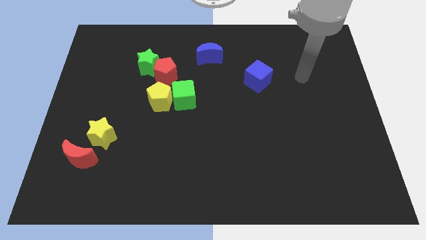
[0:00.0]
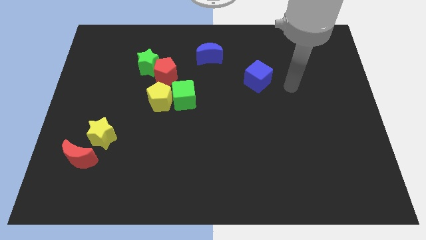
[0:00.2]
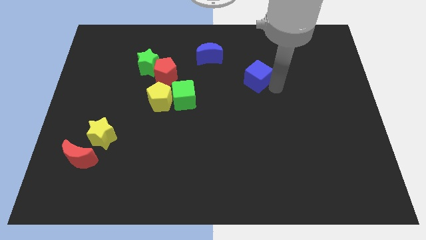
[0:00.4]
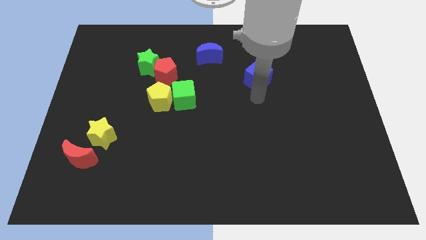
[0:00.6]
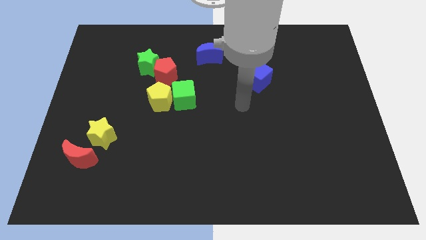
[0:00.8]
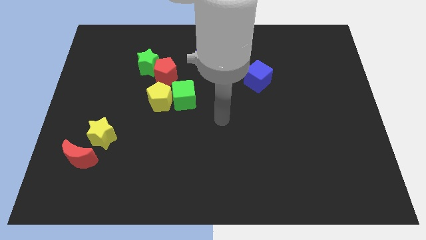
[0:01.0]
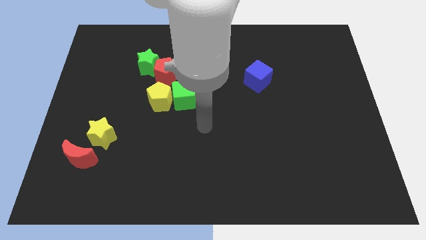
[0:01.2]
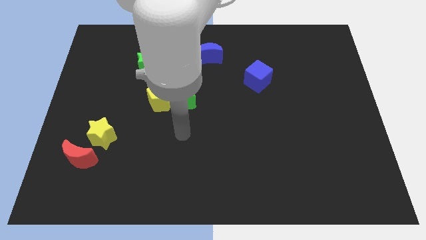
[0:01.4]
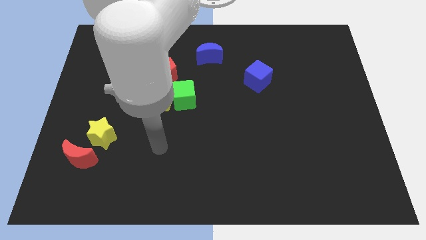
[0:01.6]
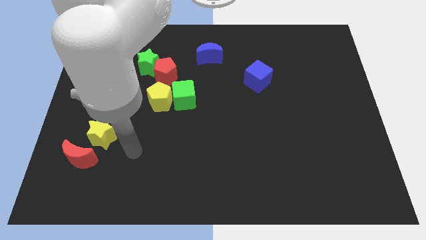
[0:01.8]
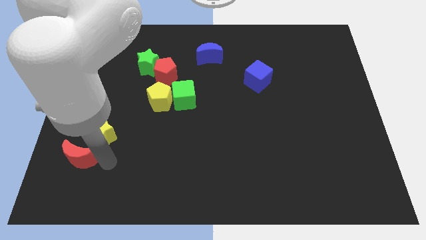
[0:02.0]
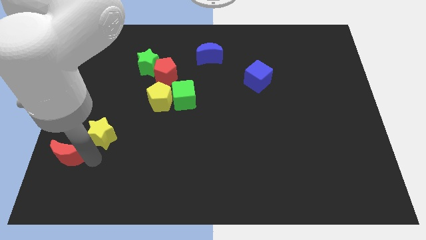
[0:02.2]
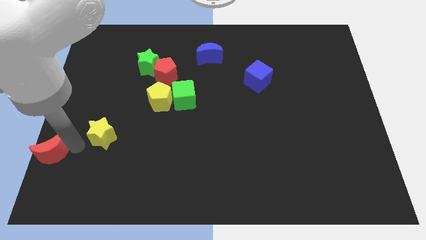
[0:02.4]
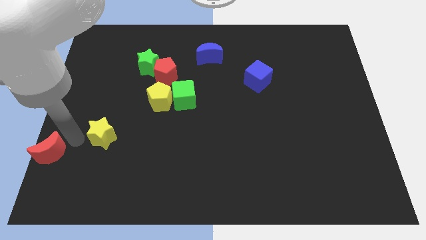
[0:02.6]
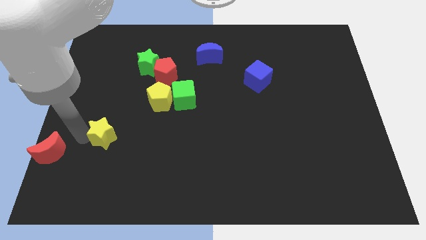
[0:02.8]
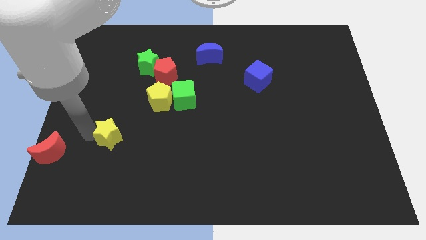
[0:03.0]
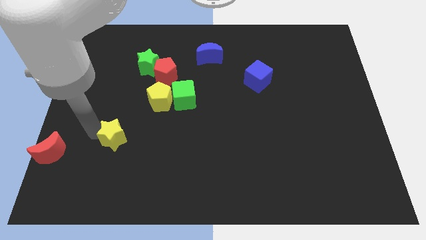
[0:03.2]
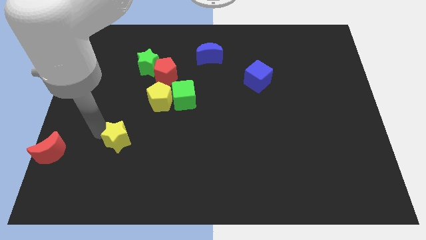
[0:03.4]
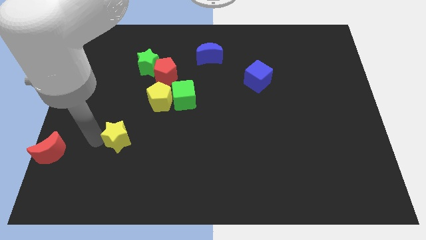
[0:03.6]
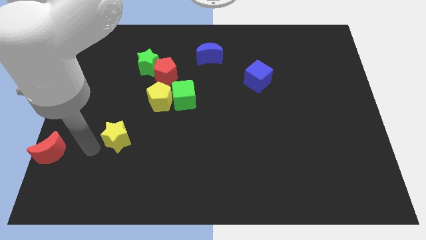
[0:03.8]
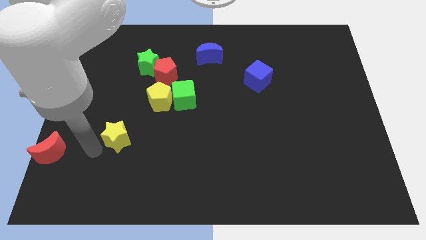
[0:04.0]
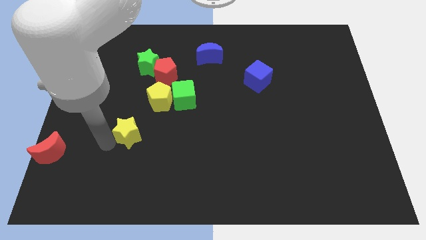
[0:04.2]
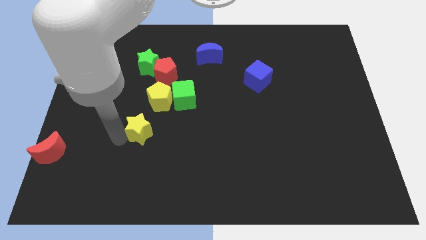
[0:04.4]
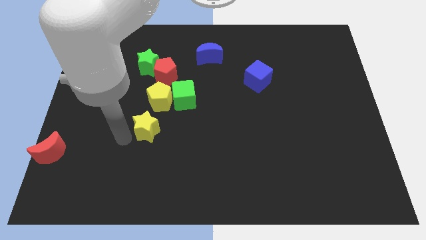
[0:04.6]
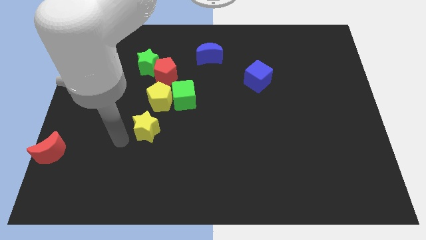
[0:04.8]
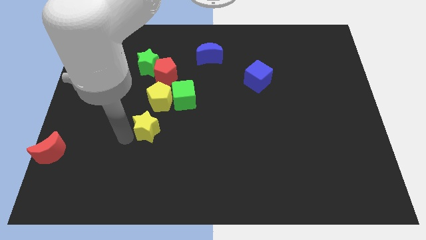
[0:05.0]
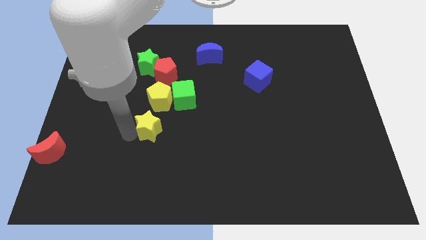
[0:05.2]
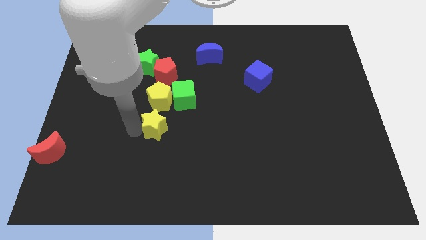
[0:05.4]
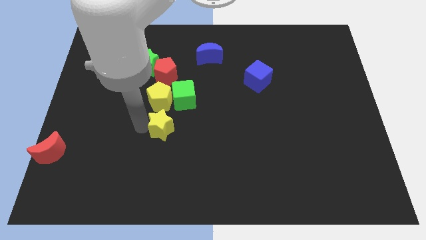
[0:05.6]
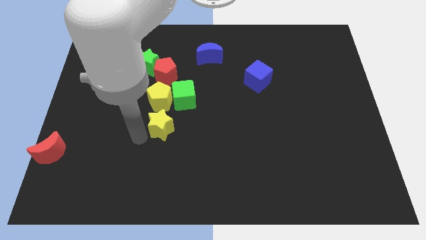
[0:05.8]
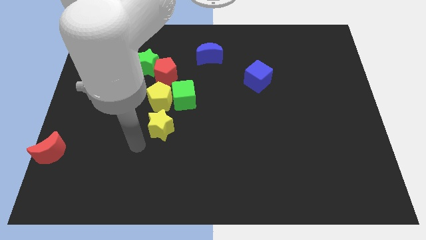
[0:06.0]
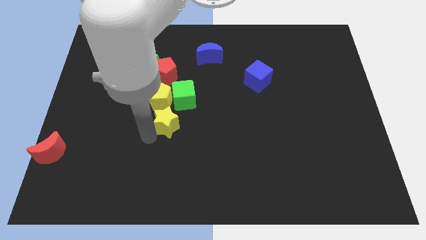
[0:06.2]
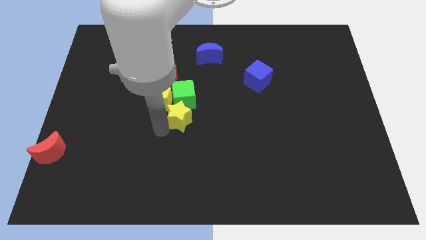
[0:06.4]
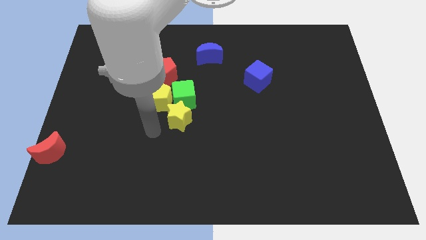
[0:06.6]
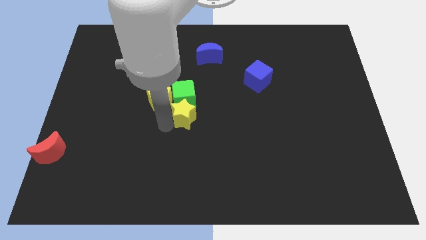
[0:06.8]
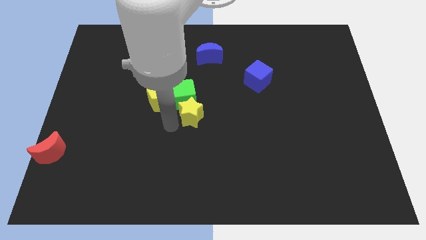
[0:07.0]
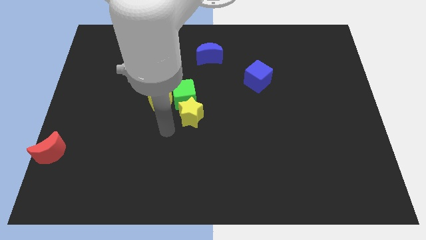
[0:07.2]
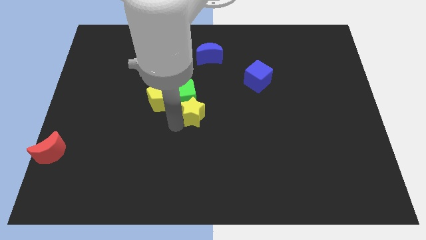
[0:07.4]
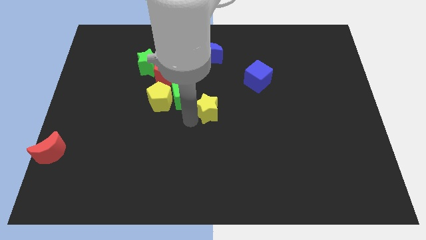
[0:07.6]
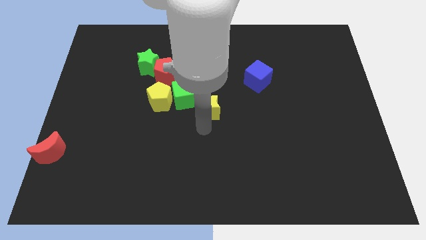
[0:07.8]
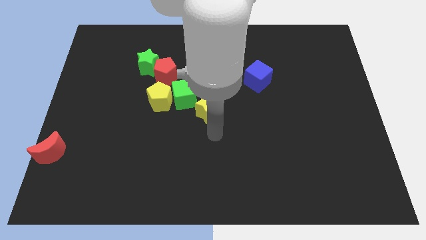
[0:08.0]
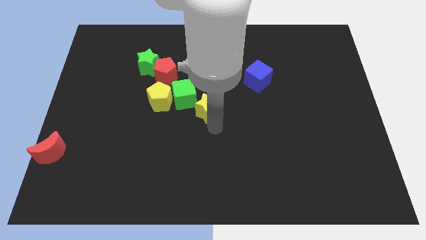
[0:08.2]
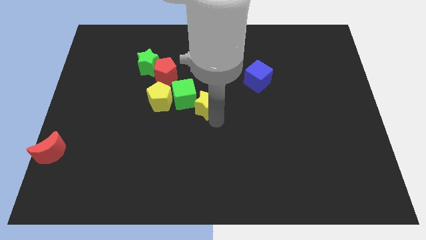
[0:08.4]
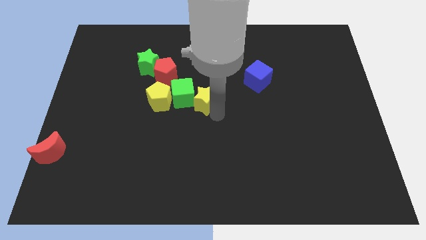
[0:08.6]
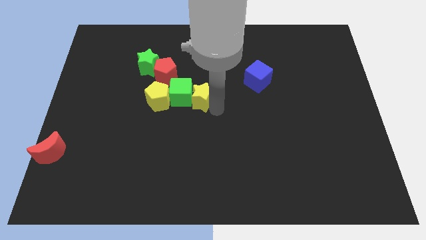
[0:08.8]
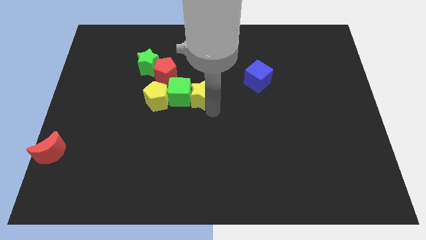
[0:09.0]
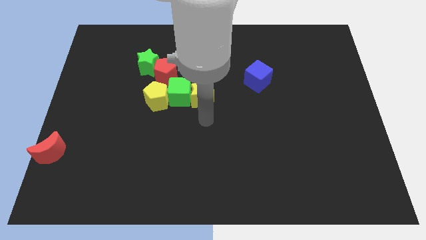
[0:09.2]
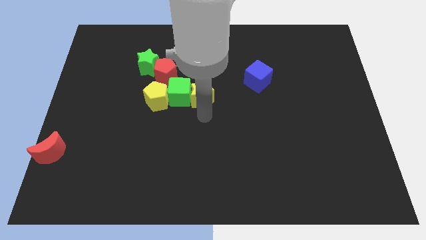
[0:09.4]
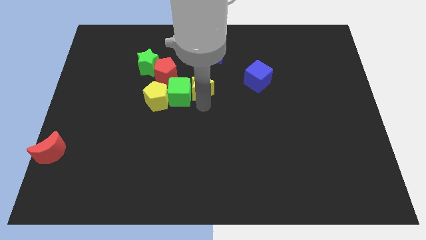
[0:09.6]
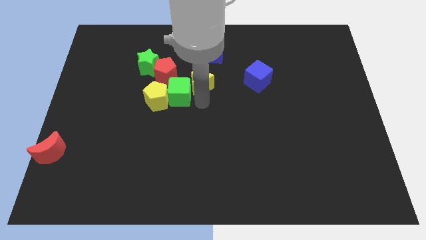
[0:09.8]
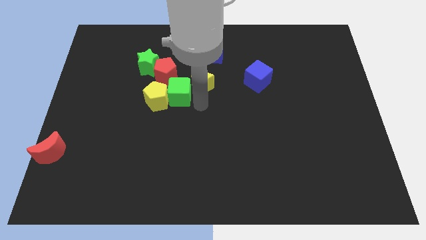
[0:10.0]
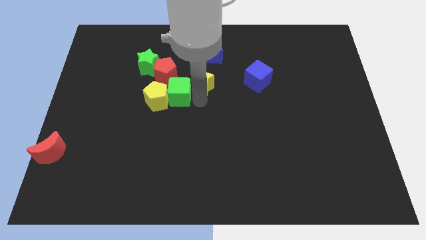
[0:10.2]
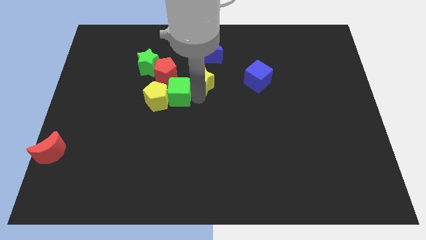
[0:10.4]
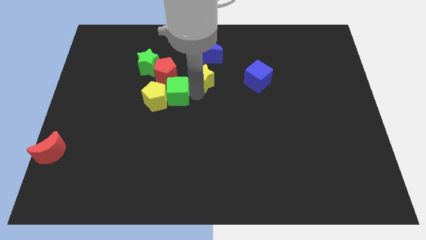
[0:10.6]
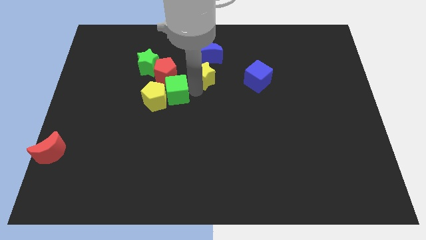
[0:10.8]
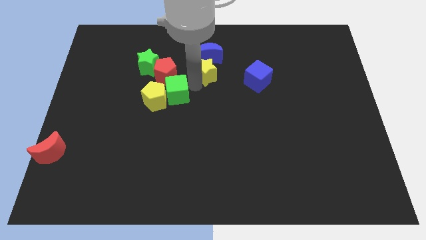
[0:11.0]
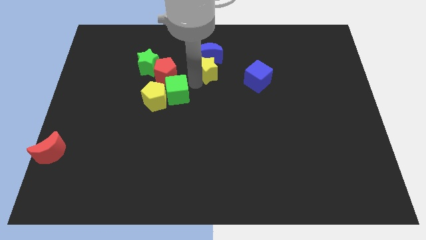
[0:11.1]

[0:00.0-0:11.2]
put the yellow star towards the blue moon

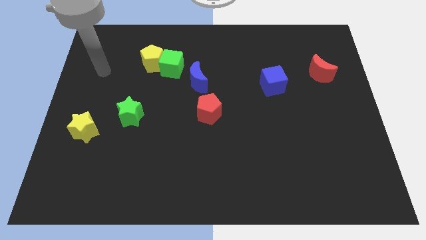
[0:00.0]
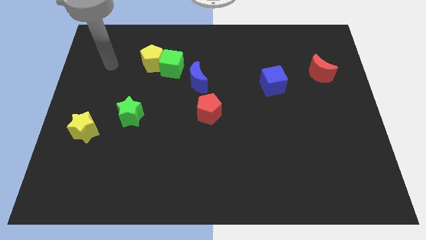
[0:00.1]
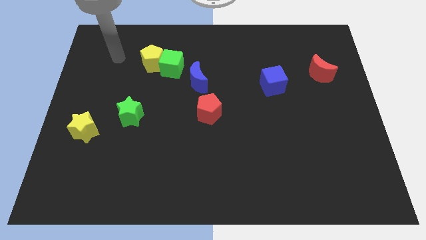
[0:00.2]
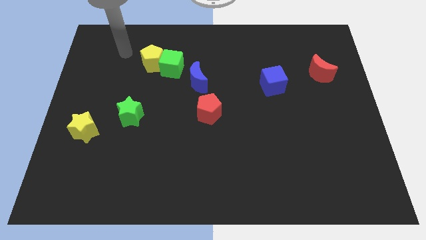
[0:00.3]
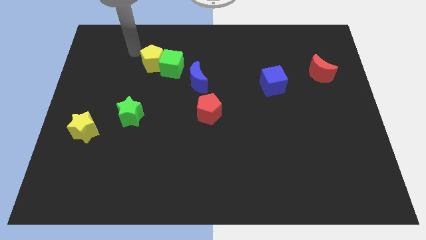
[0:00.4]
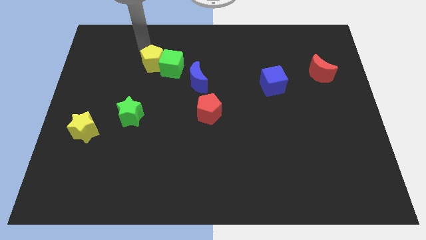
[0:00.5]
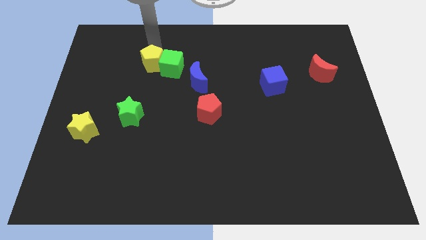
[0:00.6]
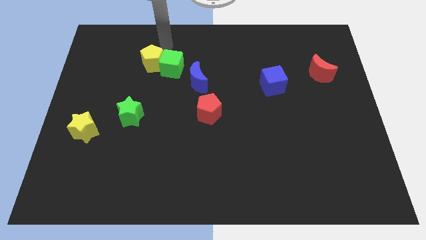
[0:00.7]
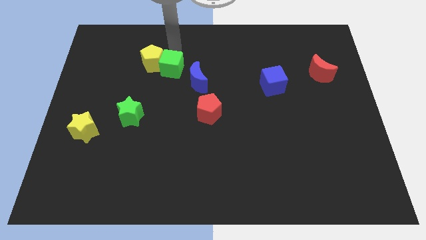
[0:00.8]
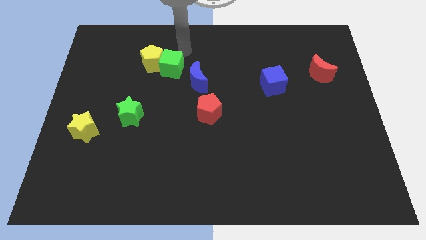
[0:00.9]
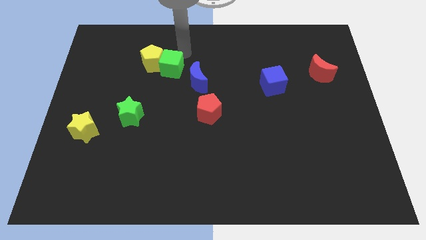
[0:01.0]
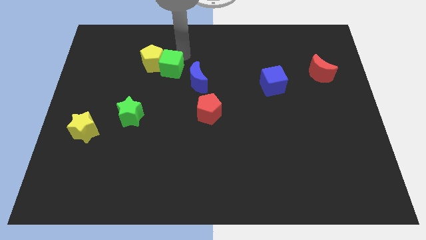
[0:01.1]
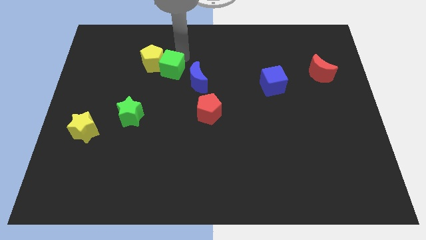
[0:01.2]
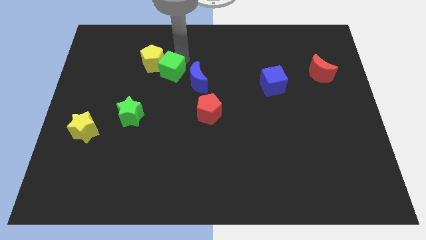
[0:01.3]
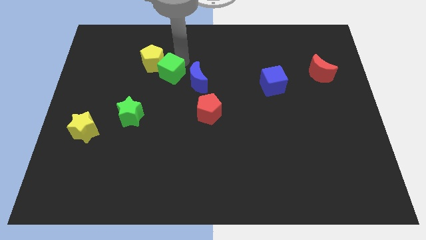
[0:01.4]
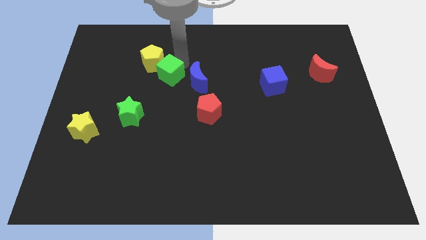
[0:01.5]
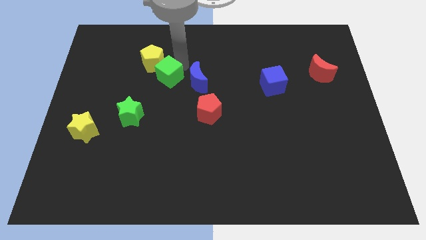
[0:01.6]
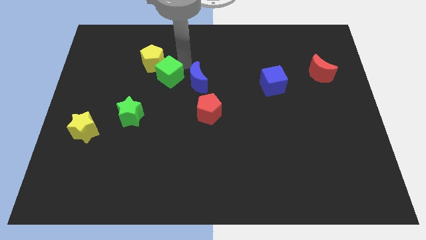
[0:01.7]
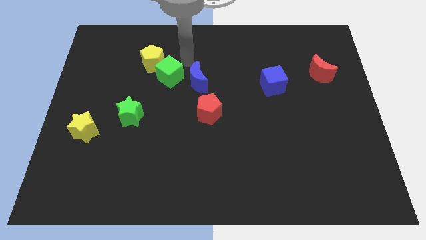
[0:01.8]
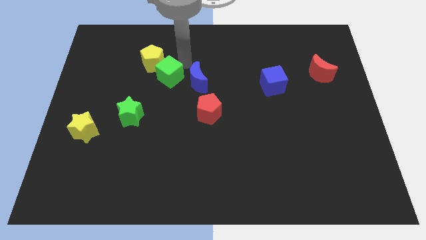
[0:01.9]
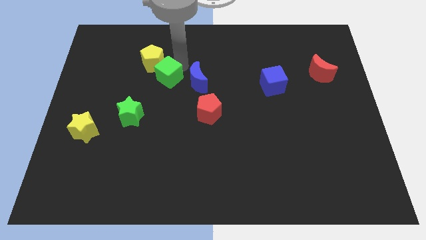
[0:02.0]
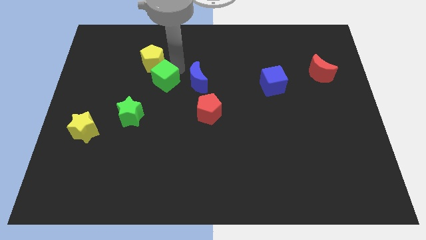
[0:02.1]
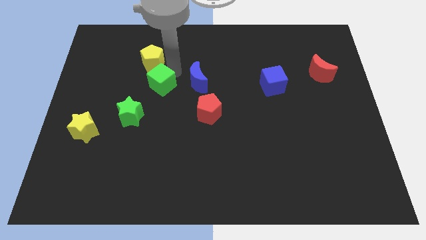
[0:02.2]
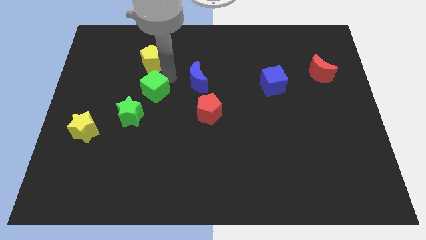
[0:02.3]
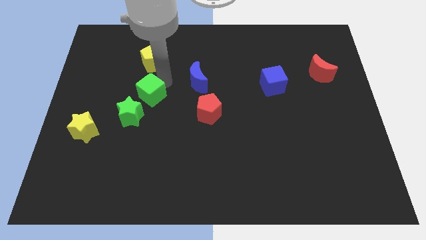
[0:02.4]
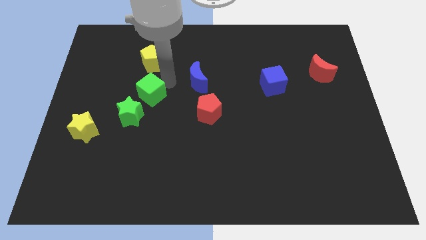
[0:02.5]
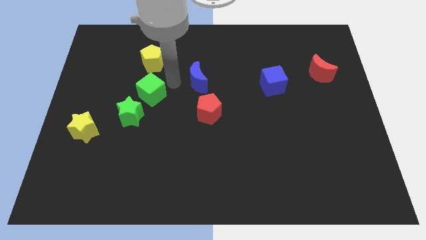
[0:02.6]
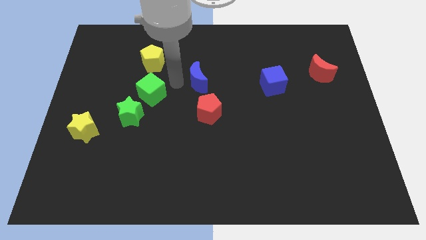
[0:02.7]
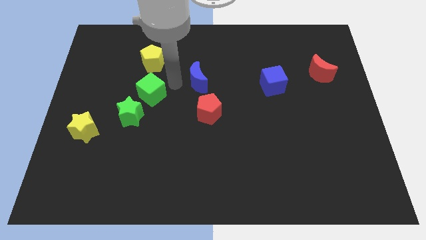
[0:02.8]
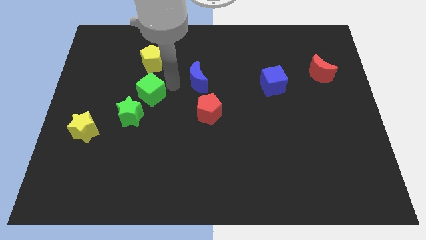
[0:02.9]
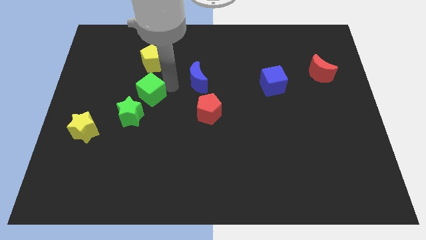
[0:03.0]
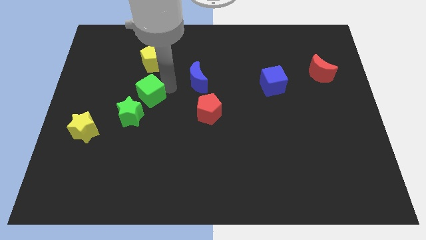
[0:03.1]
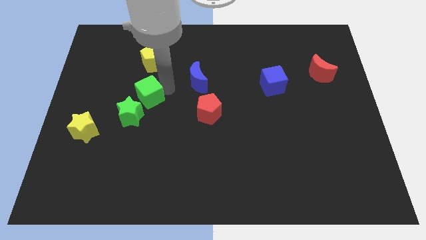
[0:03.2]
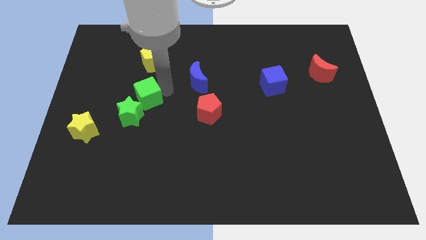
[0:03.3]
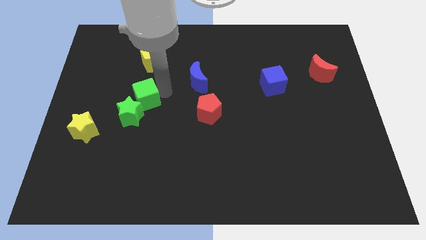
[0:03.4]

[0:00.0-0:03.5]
put the green cube next to the green star
